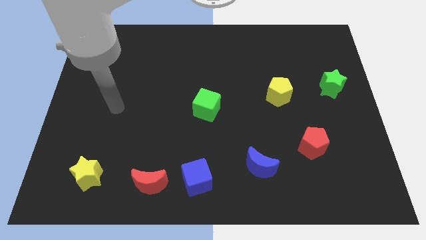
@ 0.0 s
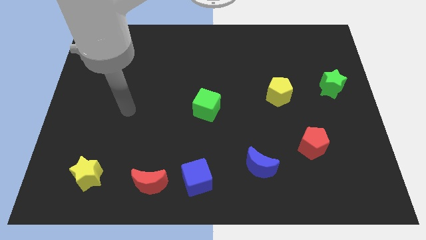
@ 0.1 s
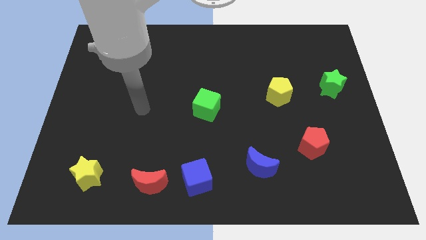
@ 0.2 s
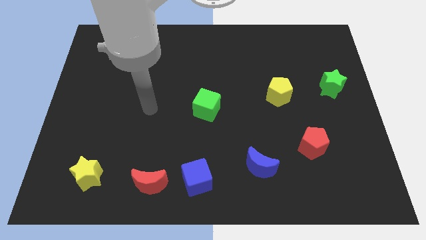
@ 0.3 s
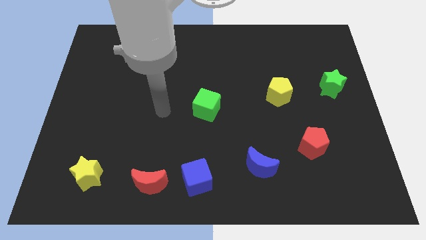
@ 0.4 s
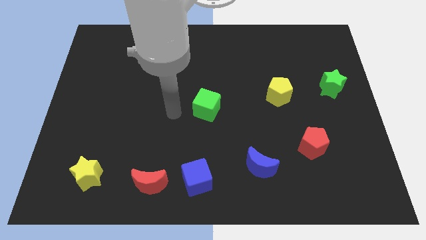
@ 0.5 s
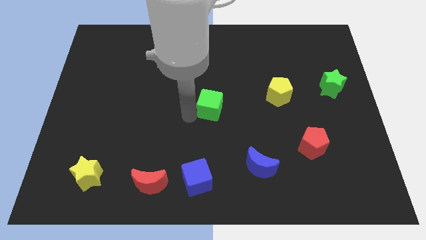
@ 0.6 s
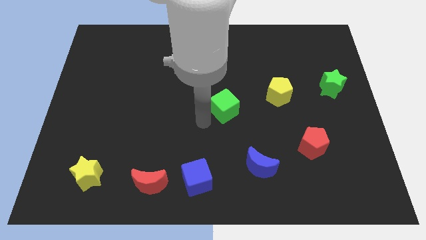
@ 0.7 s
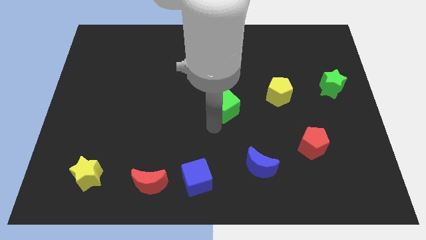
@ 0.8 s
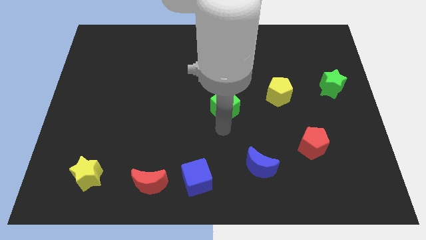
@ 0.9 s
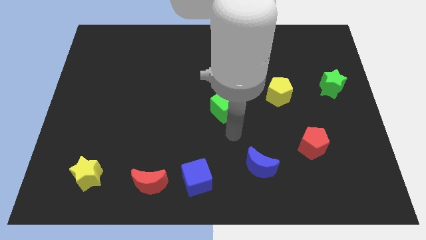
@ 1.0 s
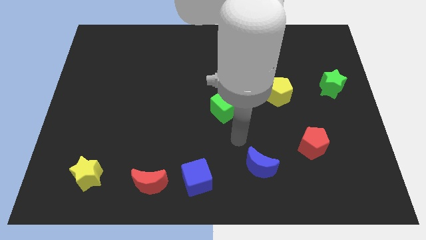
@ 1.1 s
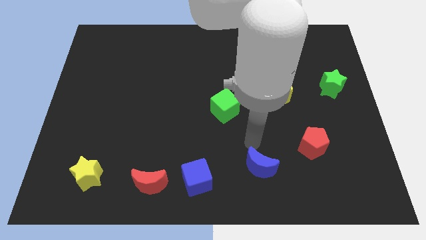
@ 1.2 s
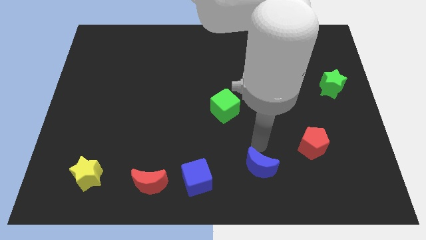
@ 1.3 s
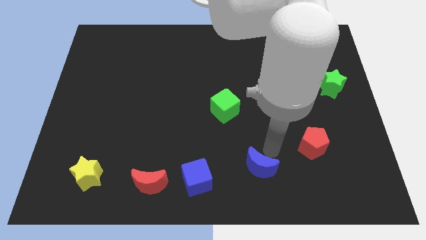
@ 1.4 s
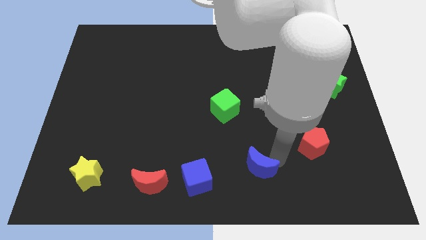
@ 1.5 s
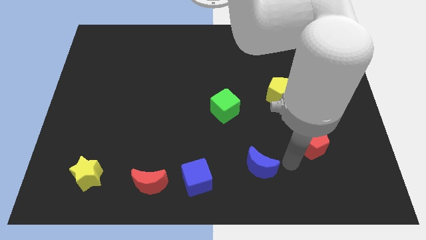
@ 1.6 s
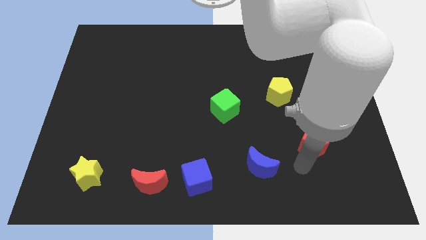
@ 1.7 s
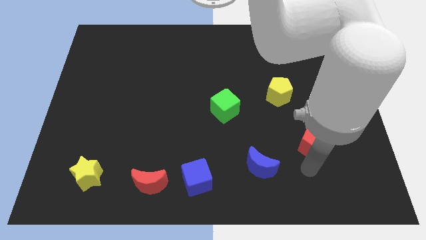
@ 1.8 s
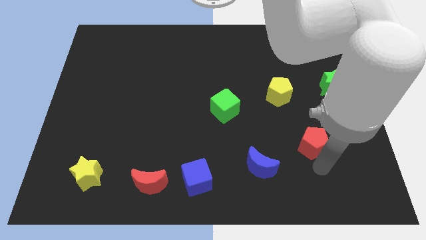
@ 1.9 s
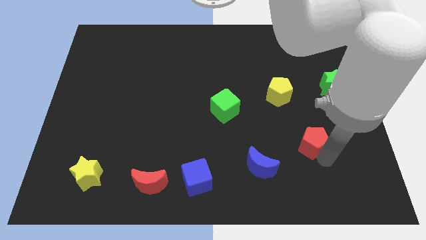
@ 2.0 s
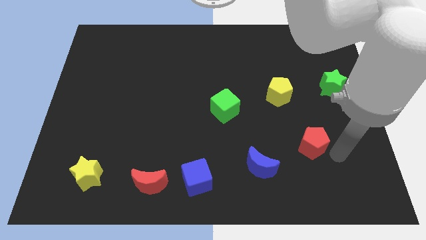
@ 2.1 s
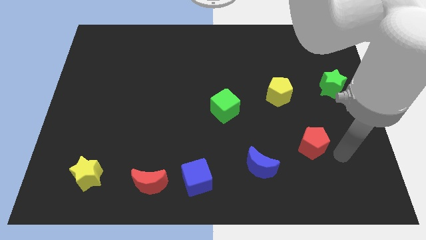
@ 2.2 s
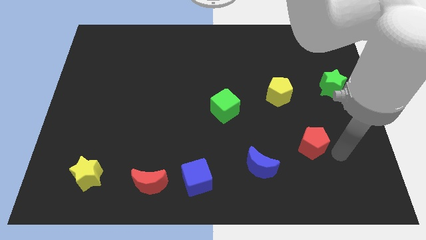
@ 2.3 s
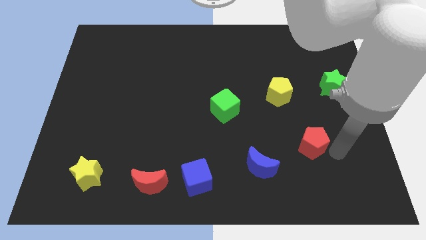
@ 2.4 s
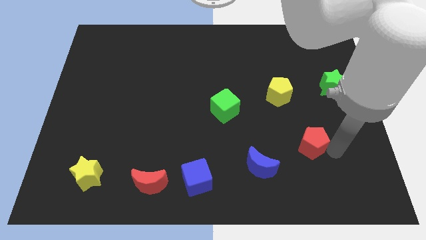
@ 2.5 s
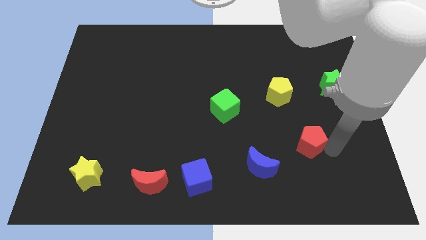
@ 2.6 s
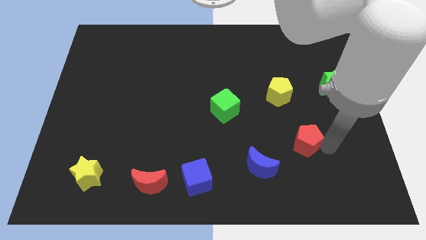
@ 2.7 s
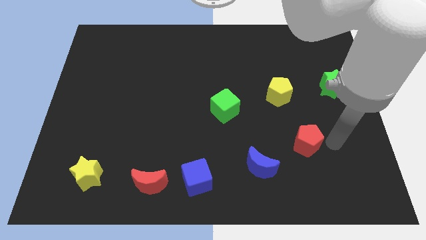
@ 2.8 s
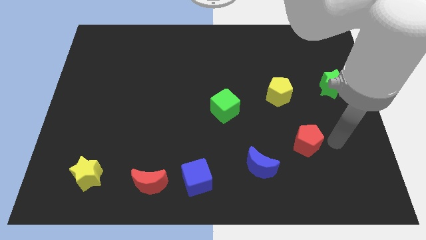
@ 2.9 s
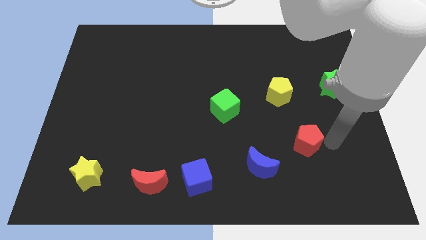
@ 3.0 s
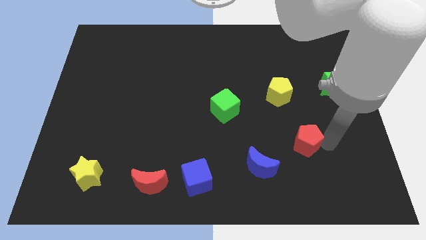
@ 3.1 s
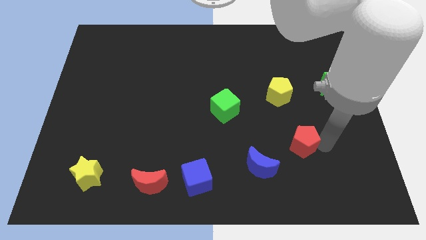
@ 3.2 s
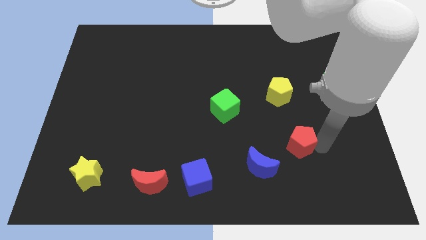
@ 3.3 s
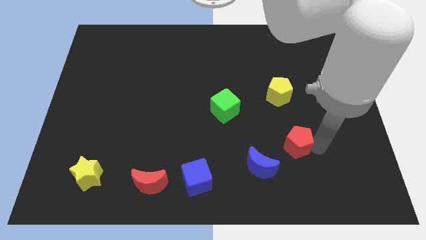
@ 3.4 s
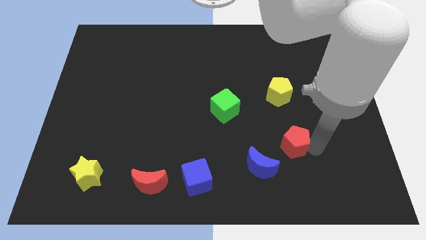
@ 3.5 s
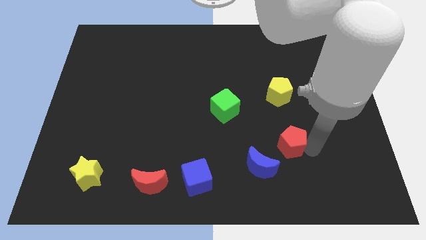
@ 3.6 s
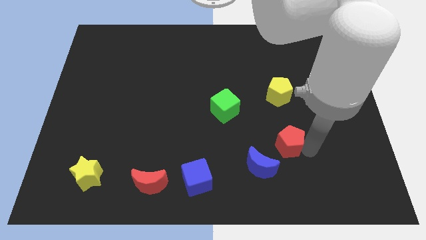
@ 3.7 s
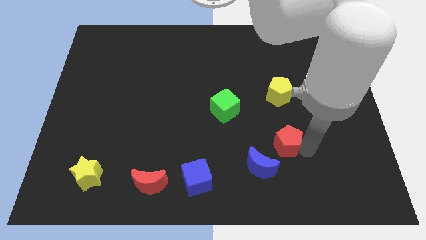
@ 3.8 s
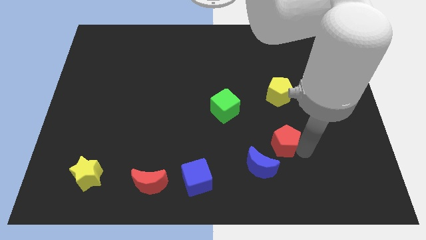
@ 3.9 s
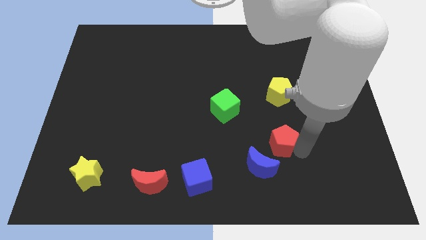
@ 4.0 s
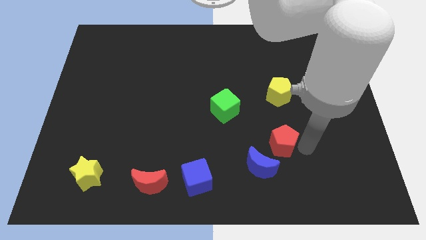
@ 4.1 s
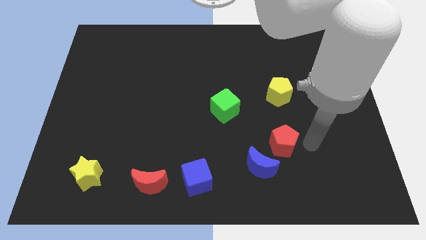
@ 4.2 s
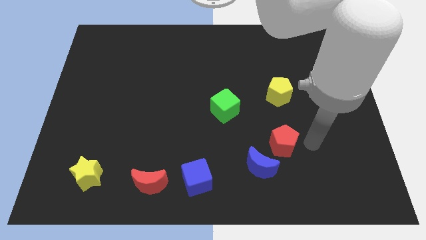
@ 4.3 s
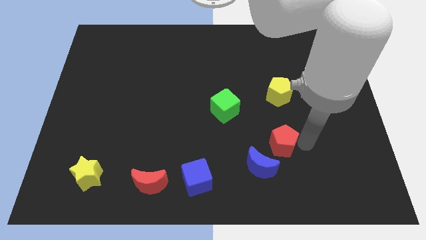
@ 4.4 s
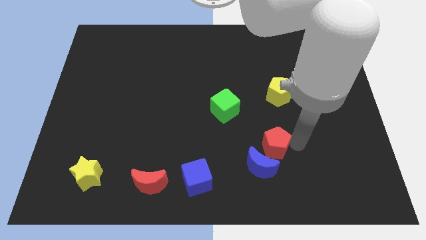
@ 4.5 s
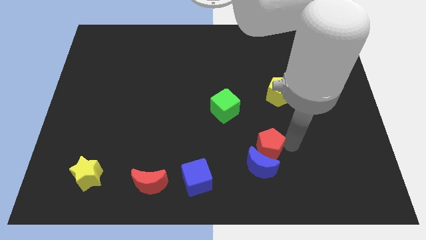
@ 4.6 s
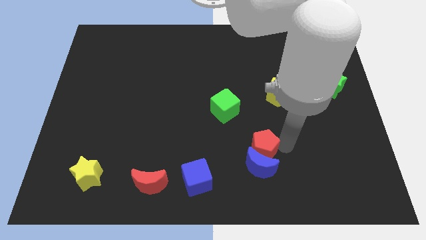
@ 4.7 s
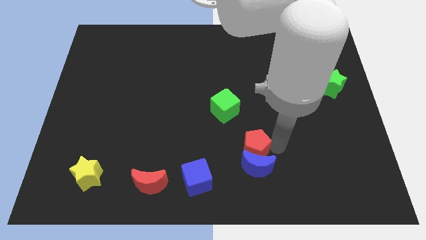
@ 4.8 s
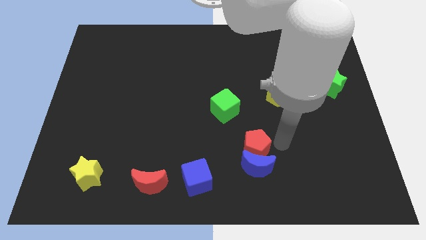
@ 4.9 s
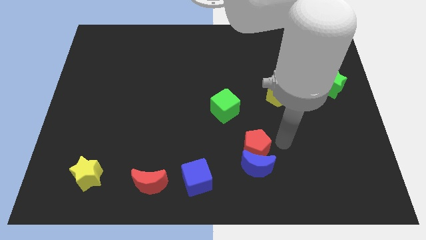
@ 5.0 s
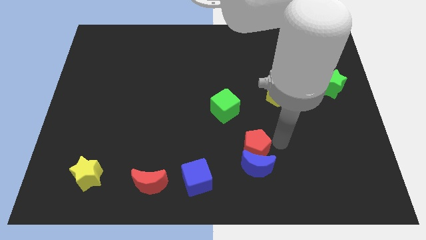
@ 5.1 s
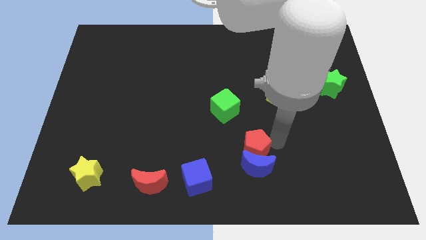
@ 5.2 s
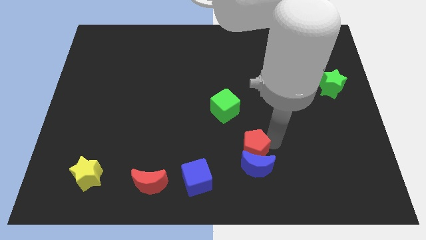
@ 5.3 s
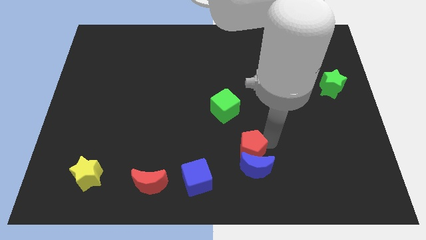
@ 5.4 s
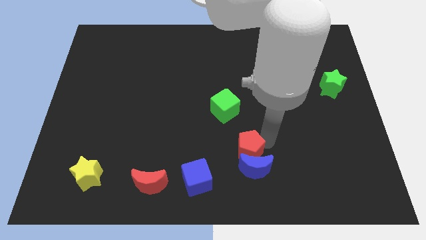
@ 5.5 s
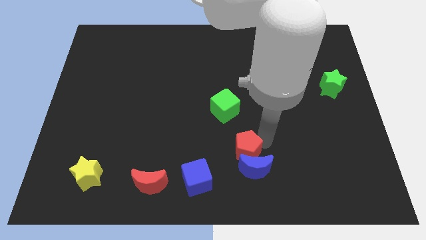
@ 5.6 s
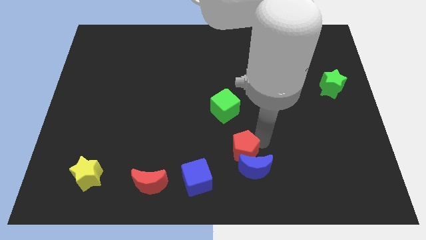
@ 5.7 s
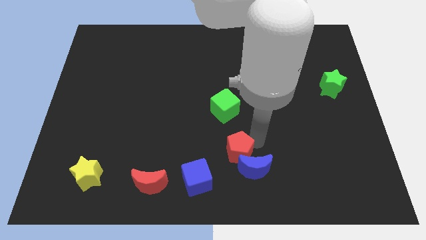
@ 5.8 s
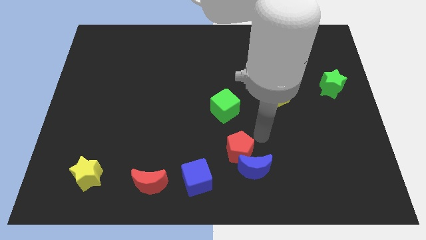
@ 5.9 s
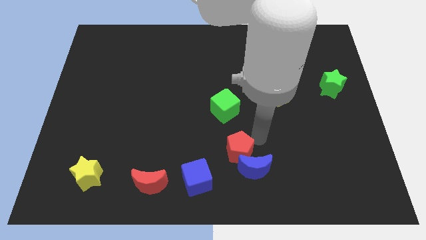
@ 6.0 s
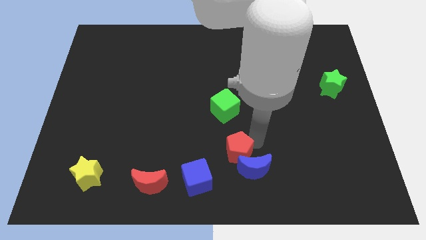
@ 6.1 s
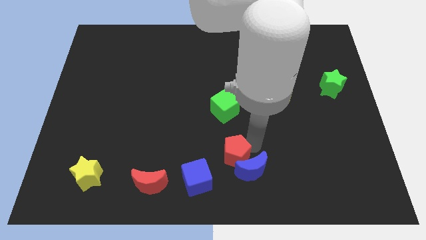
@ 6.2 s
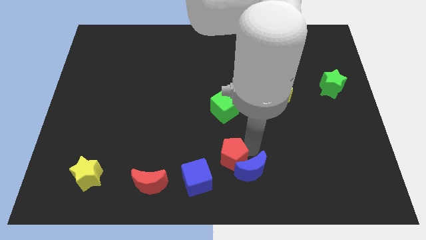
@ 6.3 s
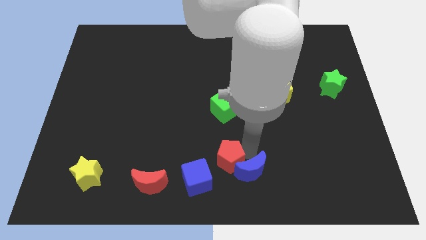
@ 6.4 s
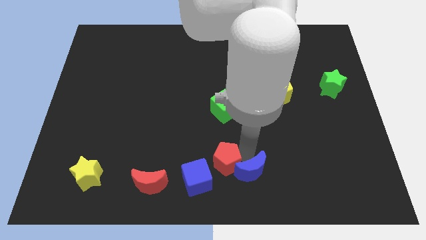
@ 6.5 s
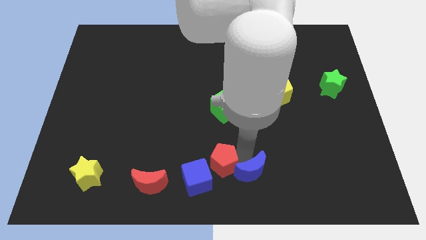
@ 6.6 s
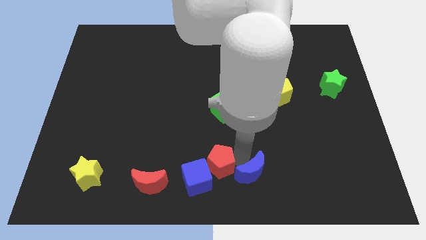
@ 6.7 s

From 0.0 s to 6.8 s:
push the red pentagon towards the blue cube
